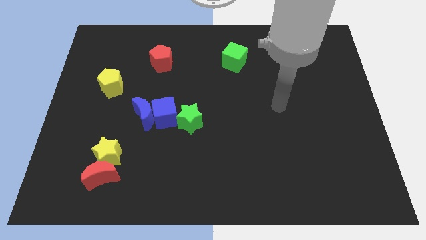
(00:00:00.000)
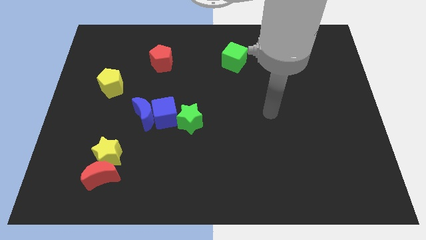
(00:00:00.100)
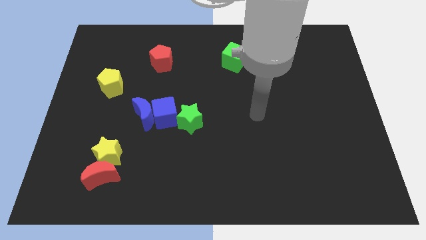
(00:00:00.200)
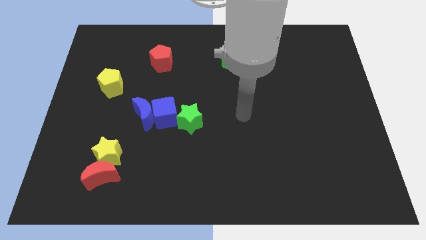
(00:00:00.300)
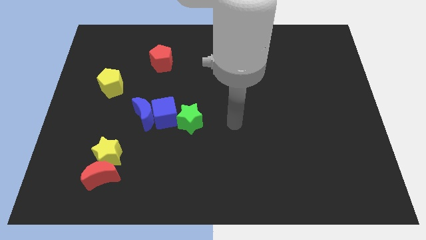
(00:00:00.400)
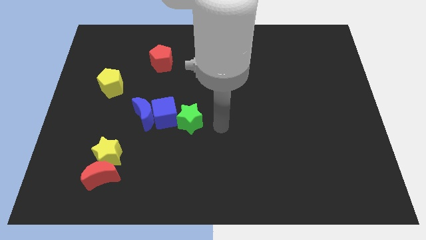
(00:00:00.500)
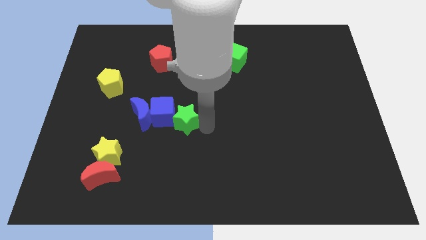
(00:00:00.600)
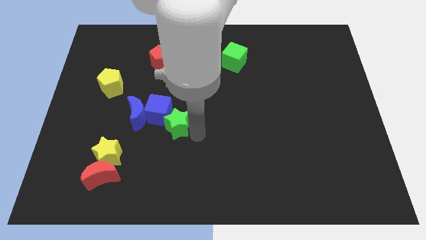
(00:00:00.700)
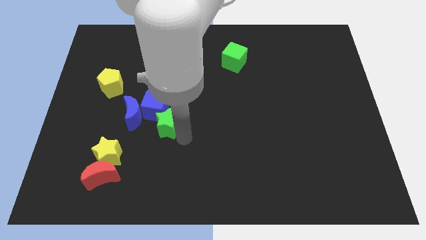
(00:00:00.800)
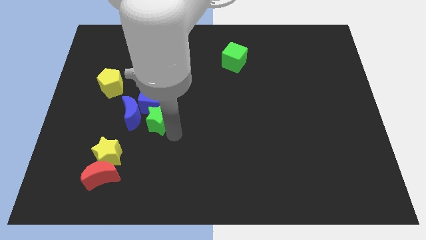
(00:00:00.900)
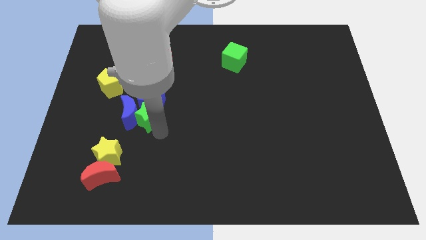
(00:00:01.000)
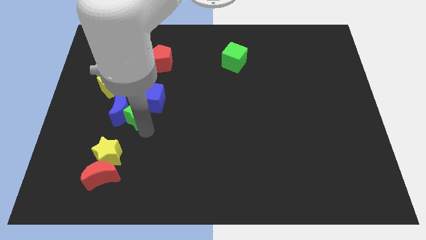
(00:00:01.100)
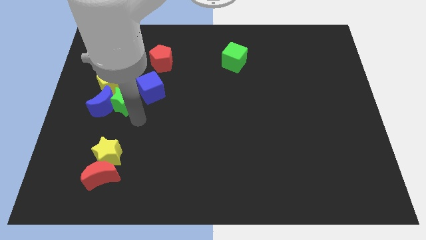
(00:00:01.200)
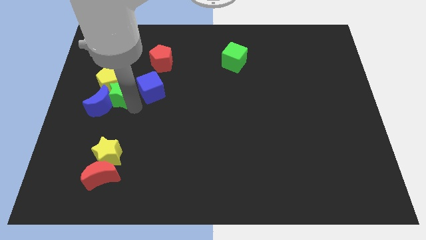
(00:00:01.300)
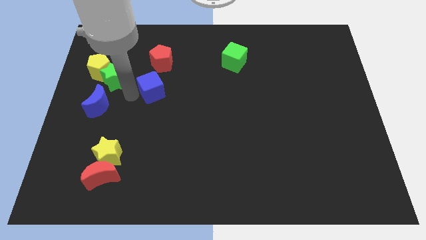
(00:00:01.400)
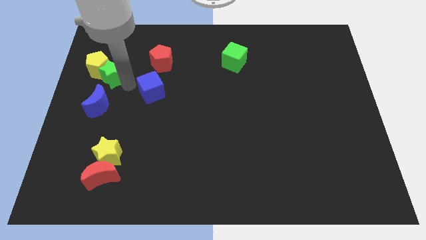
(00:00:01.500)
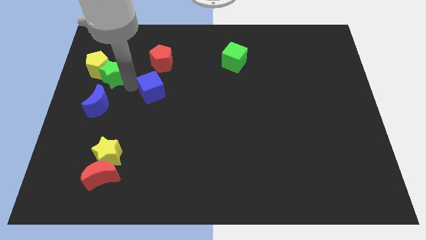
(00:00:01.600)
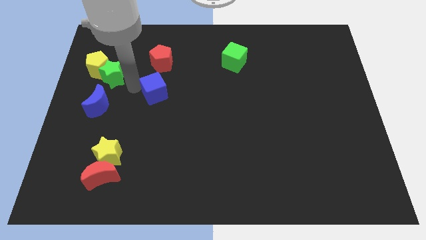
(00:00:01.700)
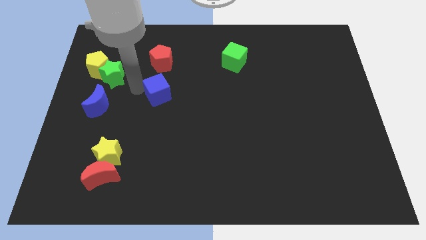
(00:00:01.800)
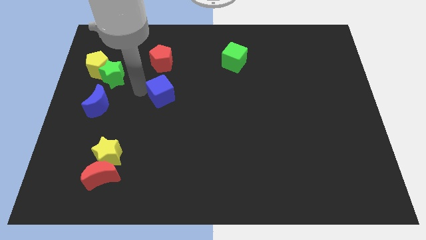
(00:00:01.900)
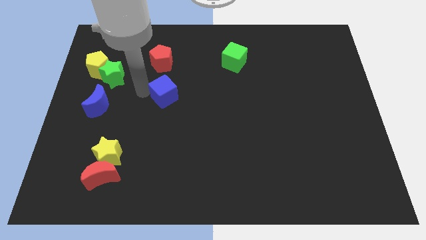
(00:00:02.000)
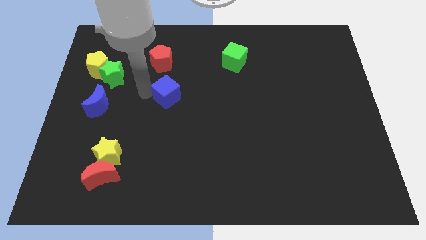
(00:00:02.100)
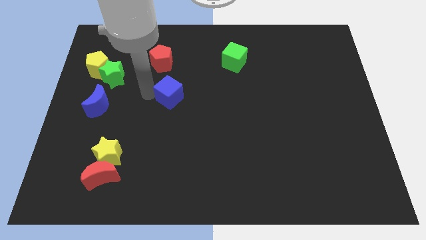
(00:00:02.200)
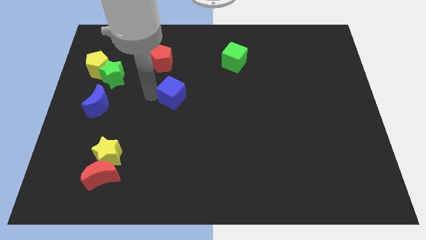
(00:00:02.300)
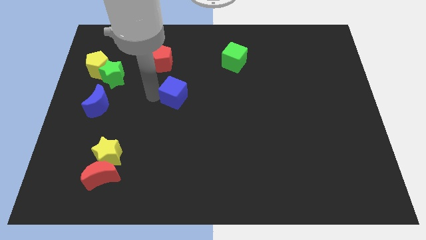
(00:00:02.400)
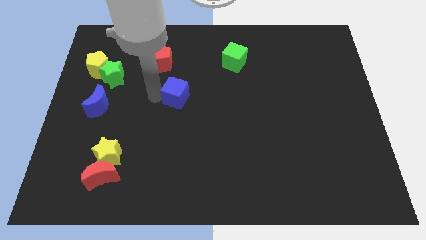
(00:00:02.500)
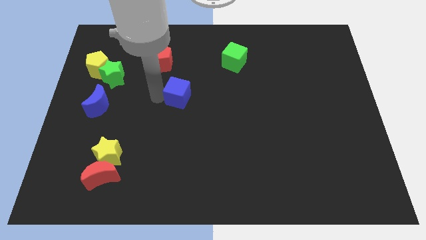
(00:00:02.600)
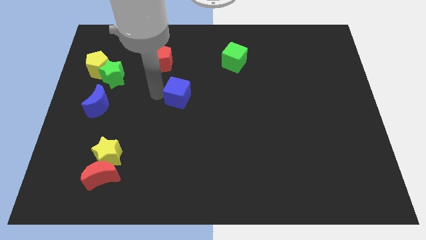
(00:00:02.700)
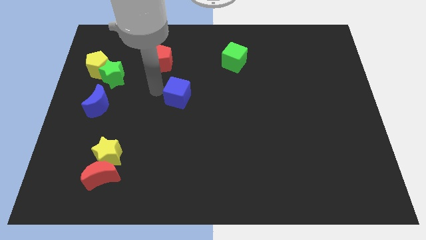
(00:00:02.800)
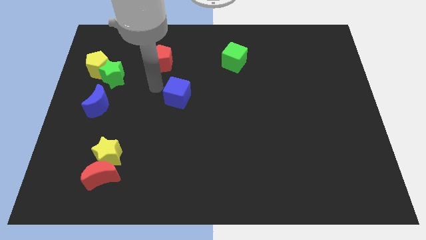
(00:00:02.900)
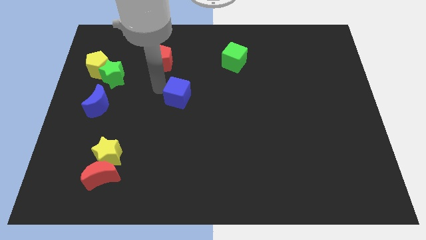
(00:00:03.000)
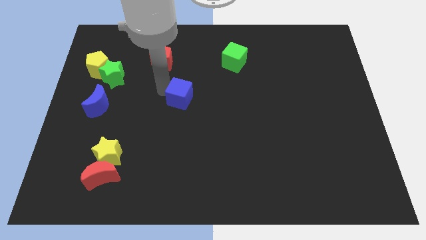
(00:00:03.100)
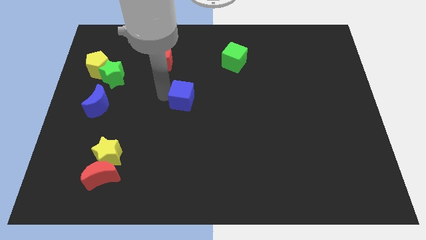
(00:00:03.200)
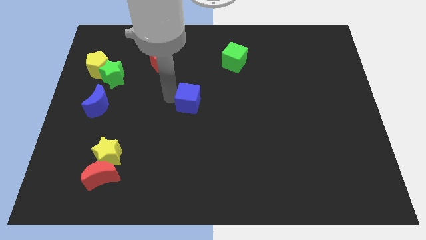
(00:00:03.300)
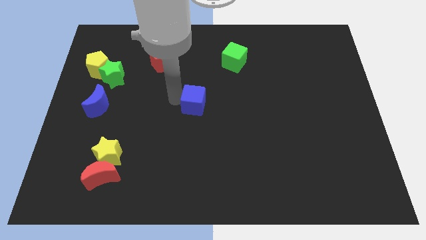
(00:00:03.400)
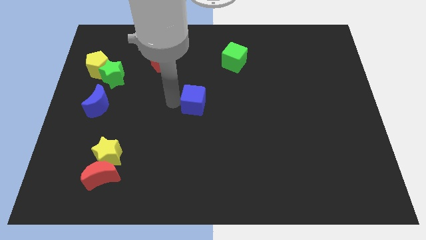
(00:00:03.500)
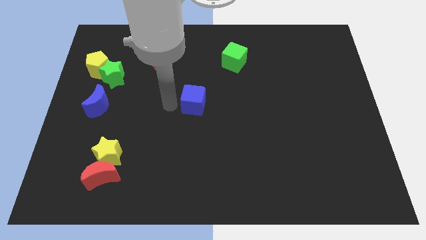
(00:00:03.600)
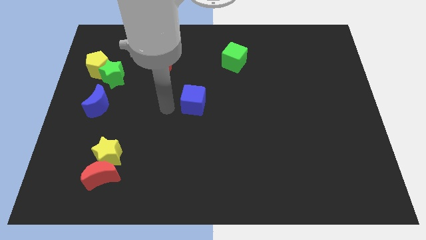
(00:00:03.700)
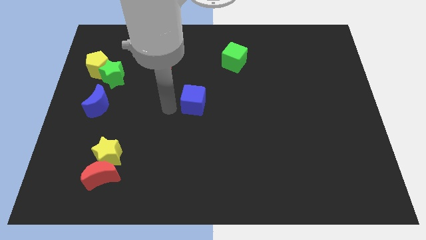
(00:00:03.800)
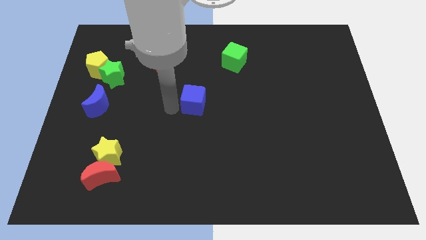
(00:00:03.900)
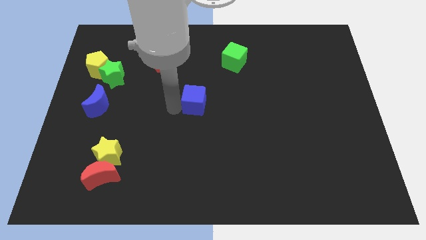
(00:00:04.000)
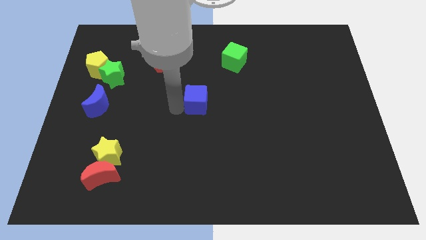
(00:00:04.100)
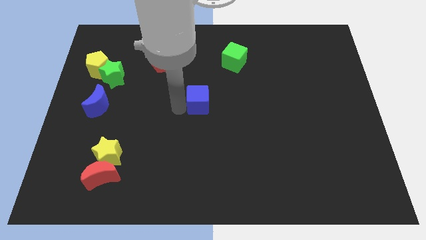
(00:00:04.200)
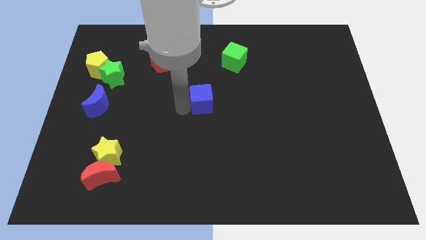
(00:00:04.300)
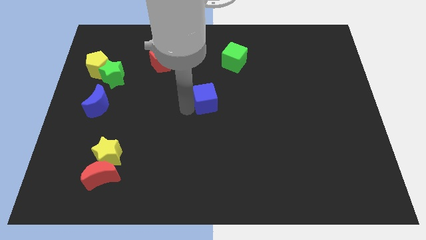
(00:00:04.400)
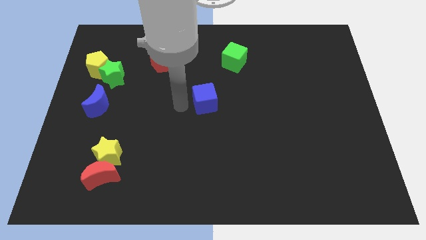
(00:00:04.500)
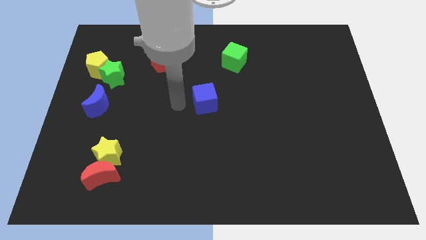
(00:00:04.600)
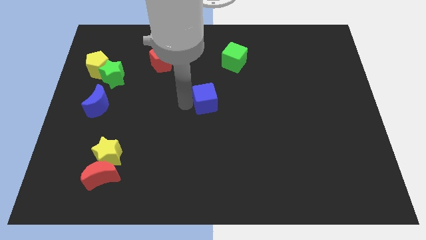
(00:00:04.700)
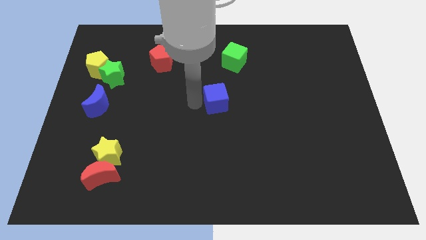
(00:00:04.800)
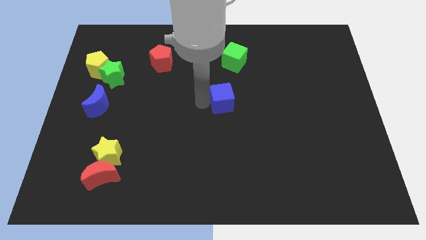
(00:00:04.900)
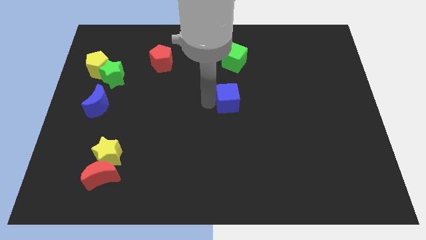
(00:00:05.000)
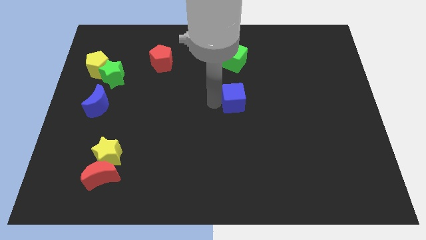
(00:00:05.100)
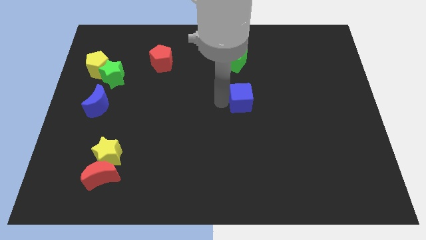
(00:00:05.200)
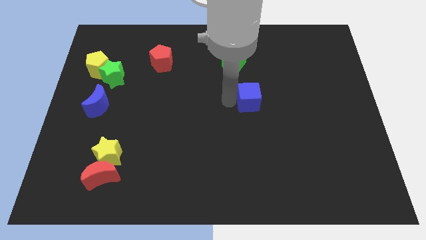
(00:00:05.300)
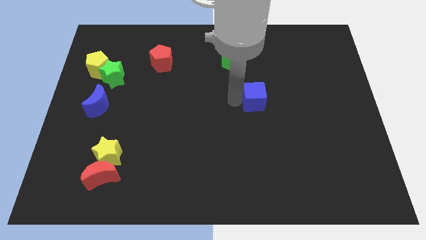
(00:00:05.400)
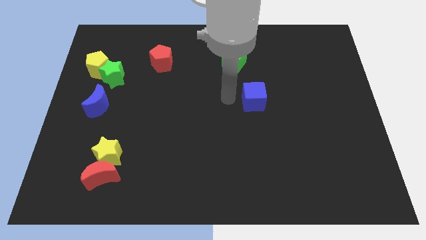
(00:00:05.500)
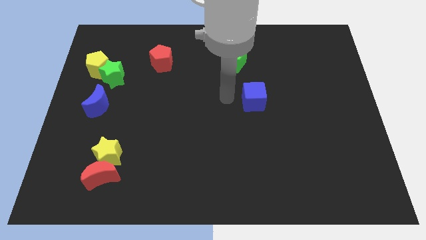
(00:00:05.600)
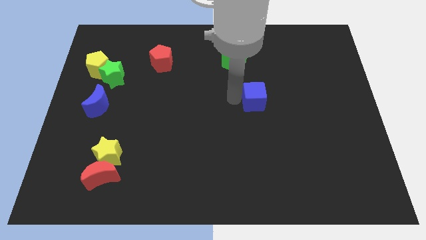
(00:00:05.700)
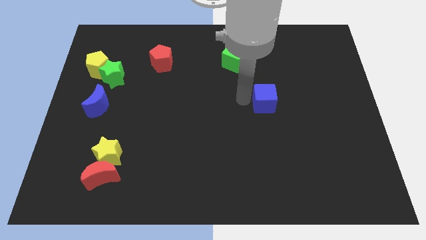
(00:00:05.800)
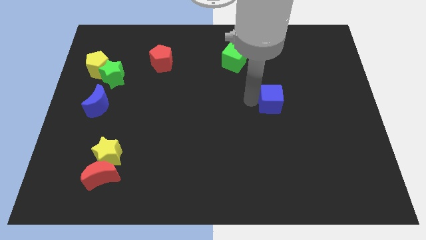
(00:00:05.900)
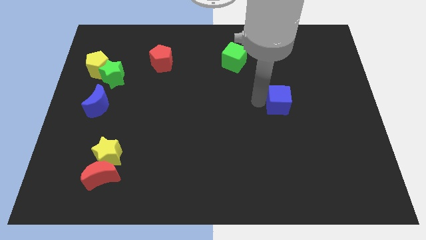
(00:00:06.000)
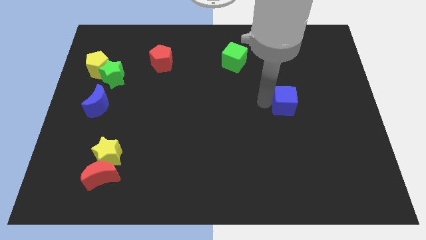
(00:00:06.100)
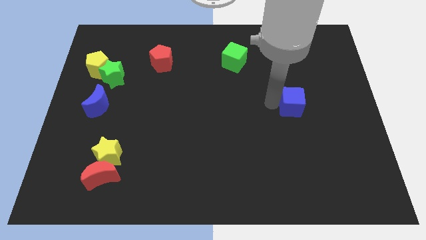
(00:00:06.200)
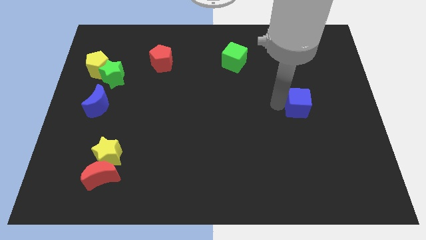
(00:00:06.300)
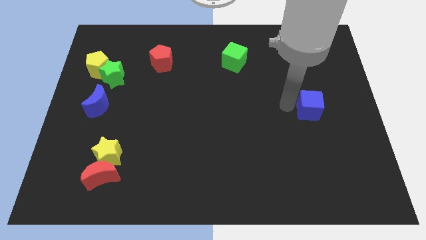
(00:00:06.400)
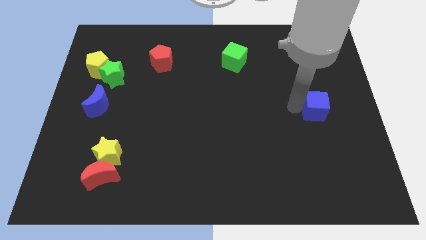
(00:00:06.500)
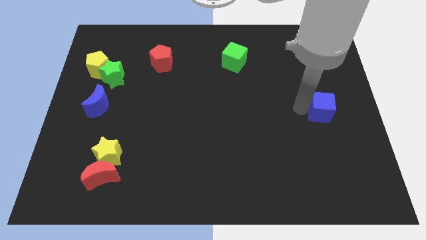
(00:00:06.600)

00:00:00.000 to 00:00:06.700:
slide the blue cube to the right side

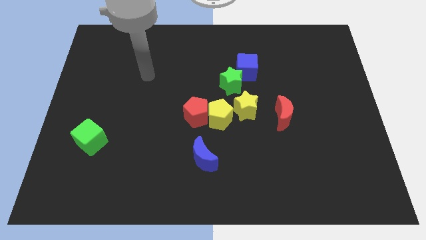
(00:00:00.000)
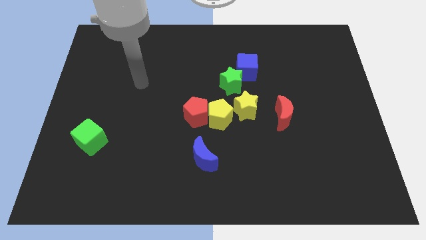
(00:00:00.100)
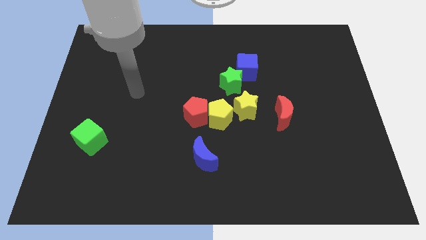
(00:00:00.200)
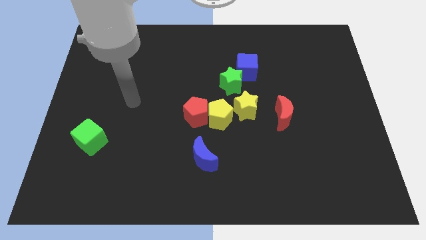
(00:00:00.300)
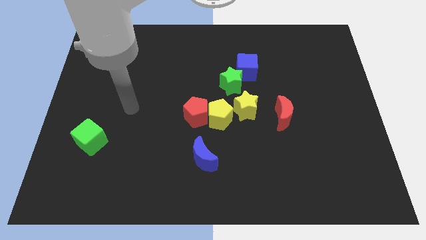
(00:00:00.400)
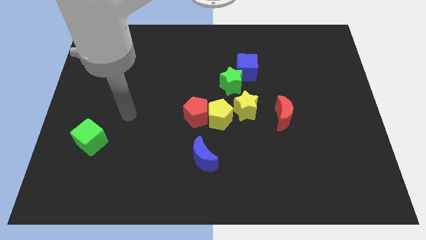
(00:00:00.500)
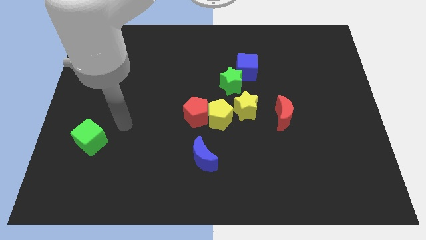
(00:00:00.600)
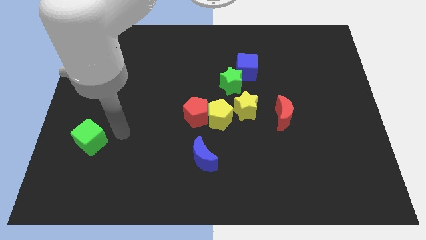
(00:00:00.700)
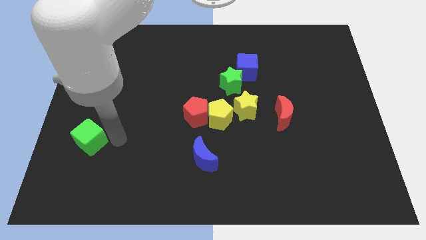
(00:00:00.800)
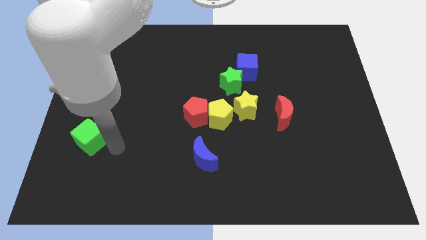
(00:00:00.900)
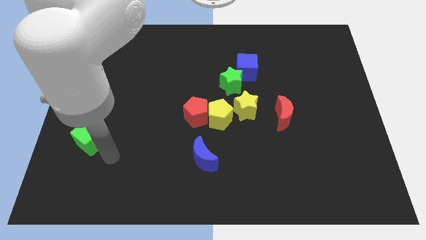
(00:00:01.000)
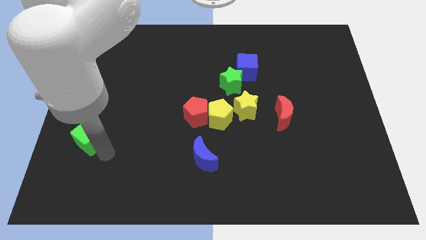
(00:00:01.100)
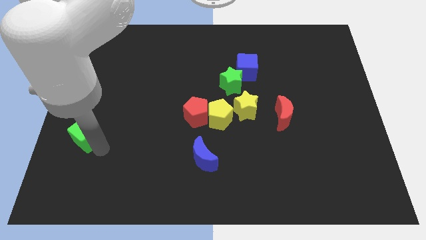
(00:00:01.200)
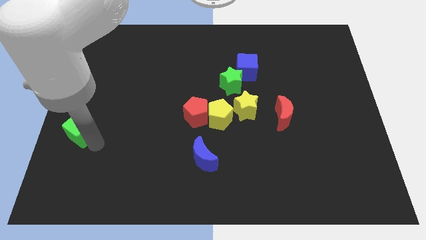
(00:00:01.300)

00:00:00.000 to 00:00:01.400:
move the green cube to the left side of the board
